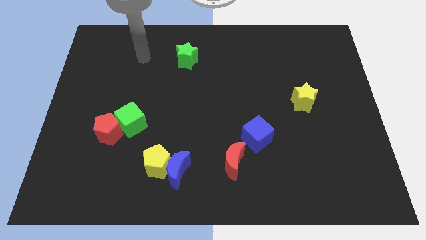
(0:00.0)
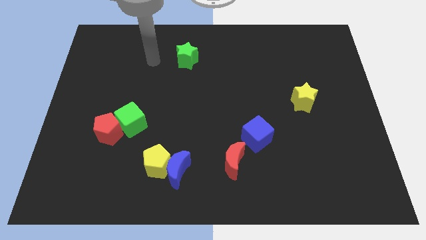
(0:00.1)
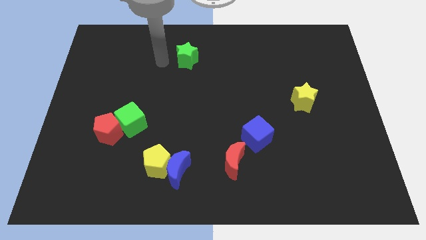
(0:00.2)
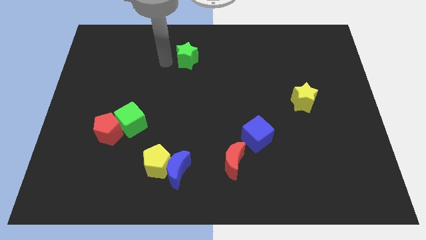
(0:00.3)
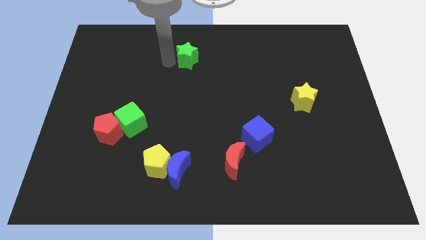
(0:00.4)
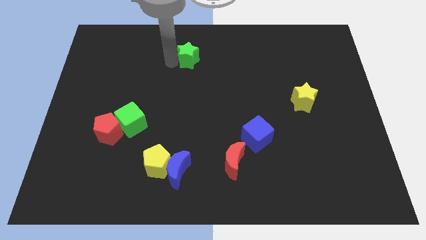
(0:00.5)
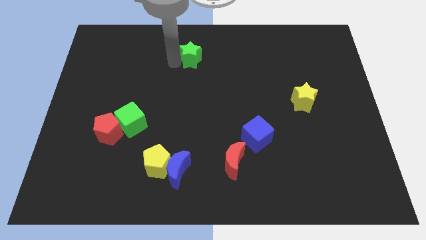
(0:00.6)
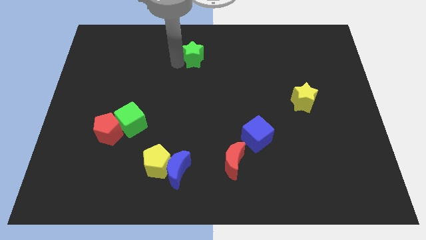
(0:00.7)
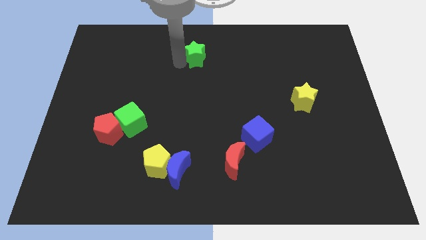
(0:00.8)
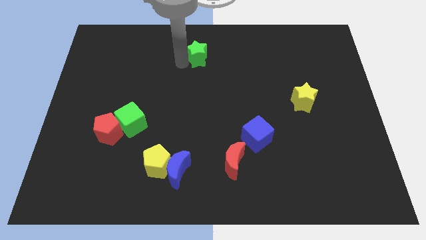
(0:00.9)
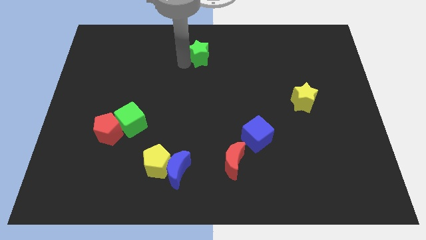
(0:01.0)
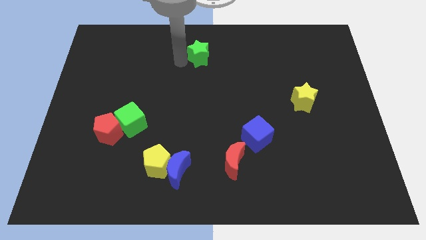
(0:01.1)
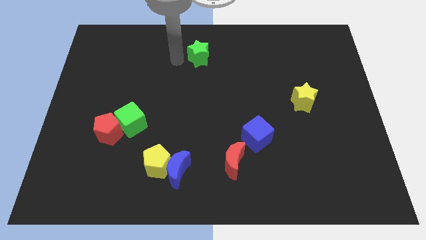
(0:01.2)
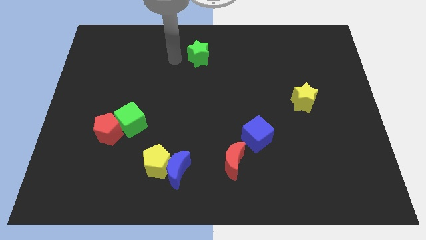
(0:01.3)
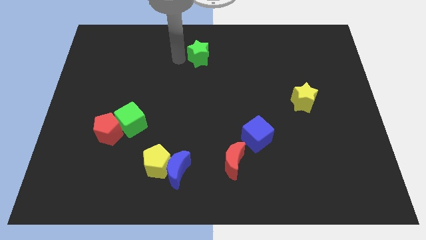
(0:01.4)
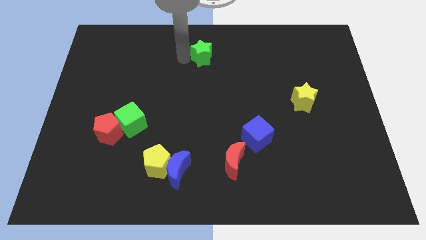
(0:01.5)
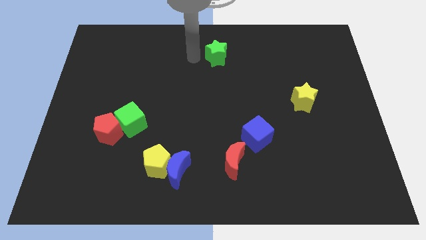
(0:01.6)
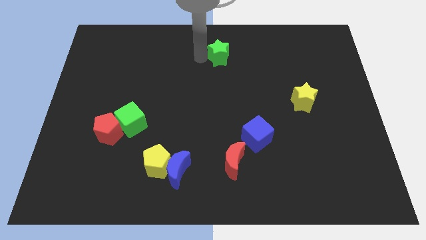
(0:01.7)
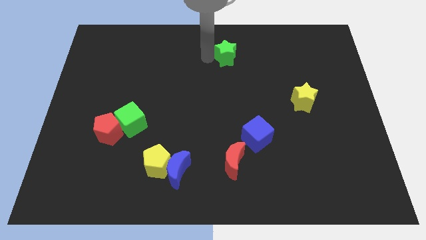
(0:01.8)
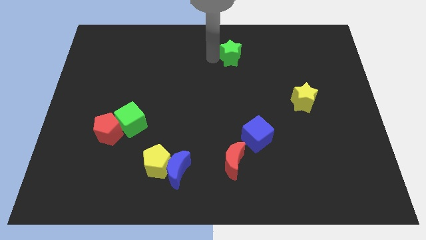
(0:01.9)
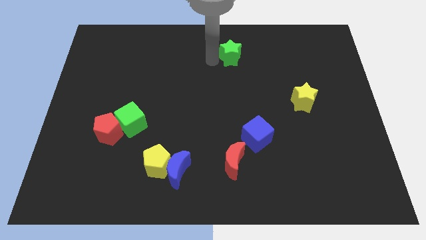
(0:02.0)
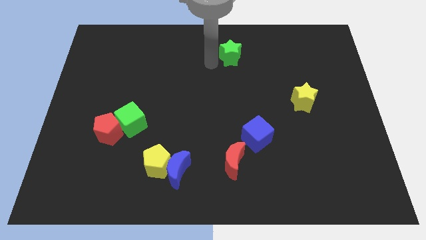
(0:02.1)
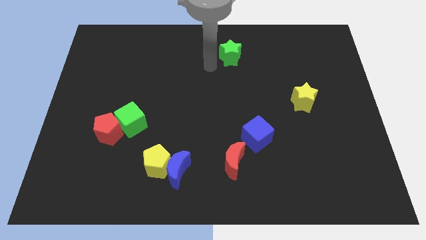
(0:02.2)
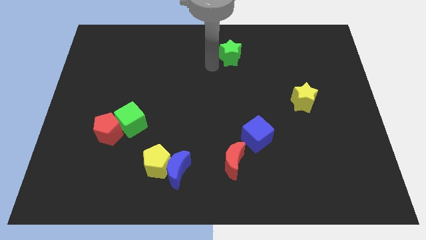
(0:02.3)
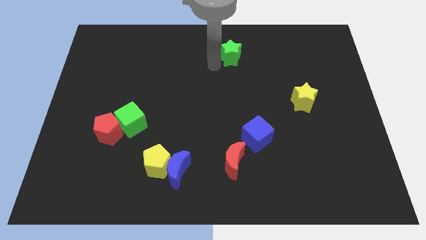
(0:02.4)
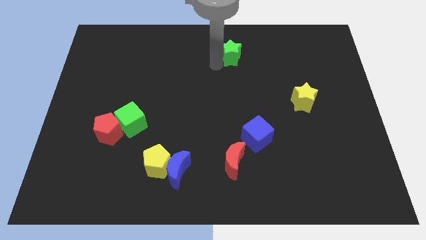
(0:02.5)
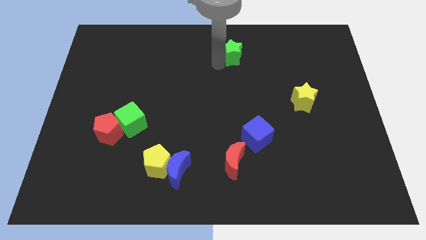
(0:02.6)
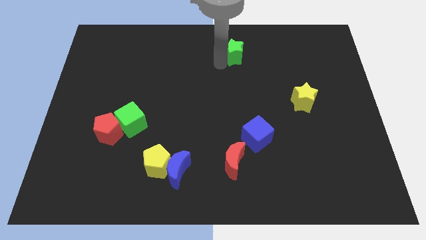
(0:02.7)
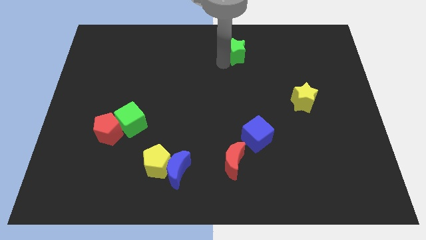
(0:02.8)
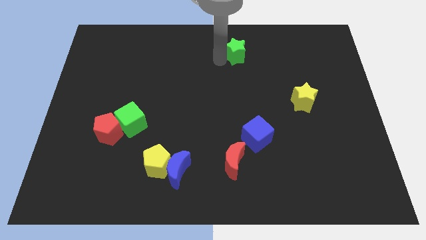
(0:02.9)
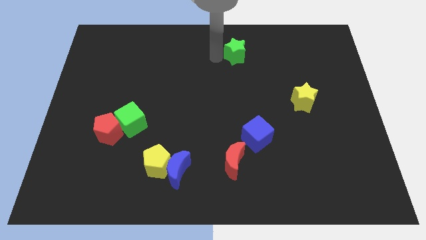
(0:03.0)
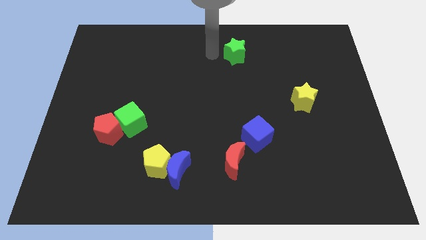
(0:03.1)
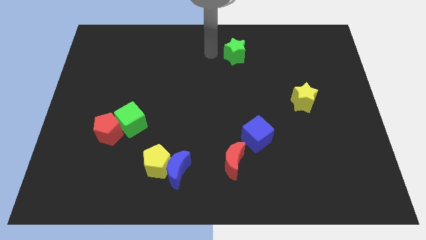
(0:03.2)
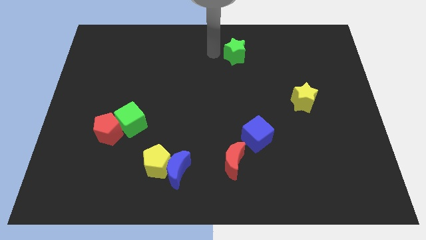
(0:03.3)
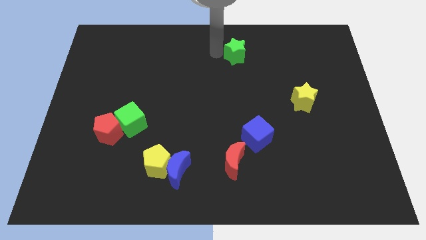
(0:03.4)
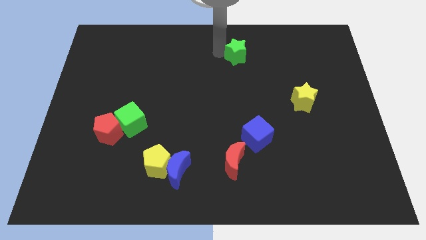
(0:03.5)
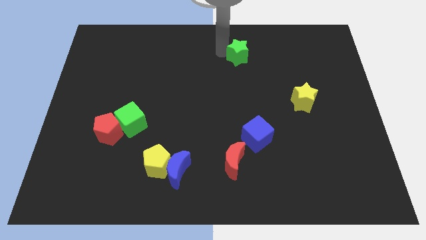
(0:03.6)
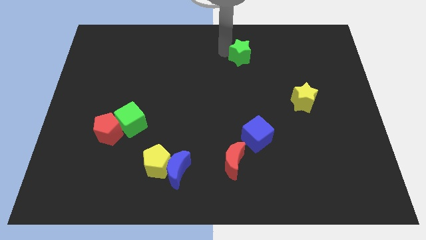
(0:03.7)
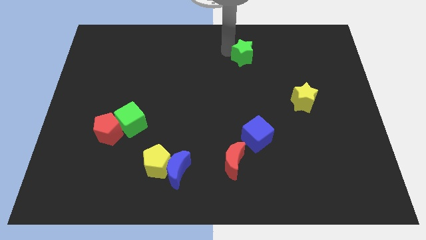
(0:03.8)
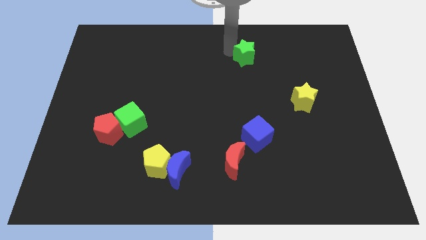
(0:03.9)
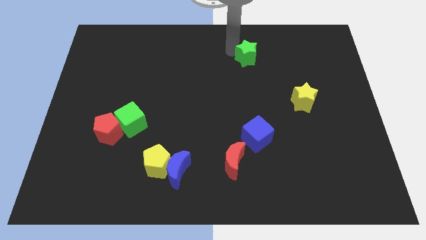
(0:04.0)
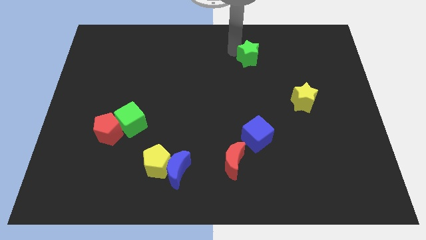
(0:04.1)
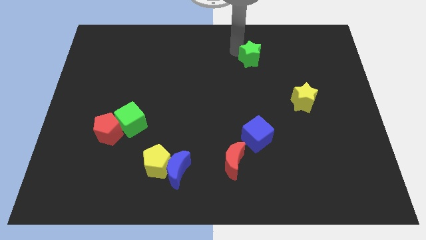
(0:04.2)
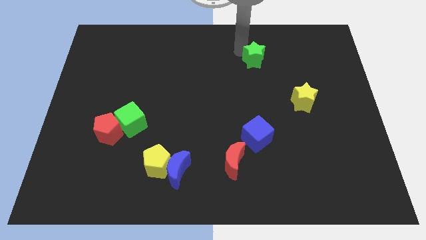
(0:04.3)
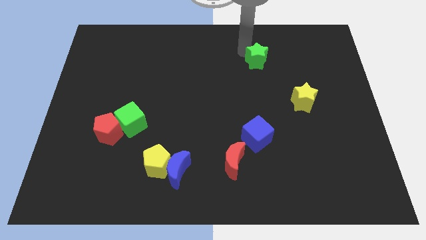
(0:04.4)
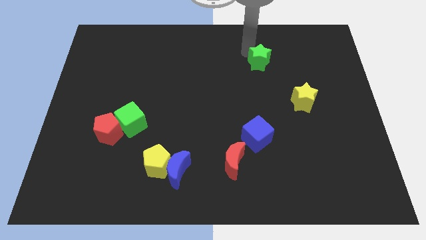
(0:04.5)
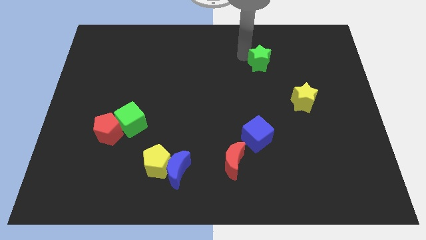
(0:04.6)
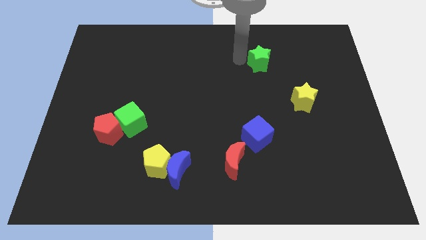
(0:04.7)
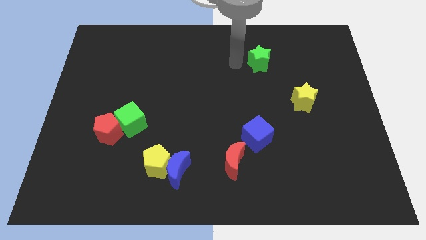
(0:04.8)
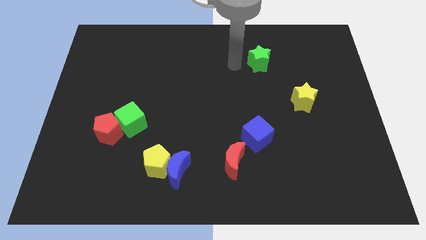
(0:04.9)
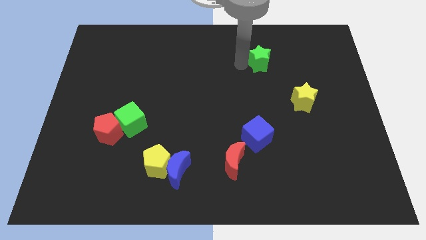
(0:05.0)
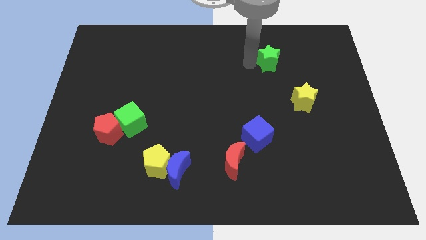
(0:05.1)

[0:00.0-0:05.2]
move the green star right

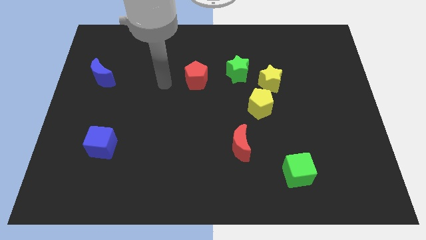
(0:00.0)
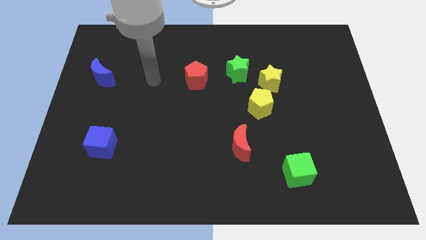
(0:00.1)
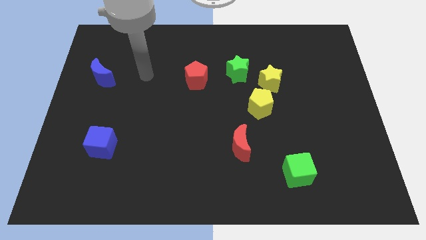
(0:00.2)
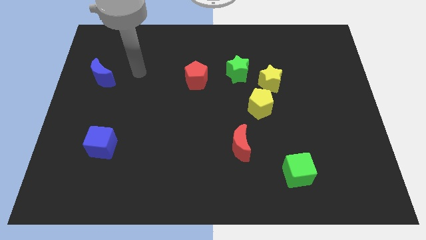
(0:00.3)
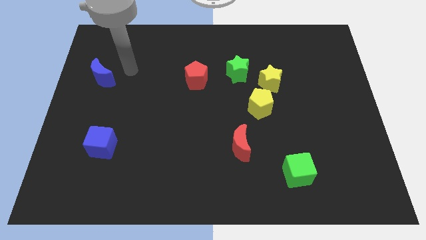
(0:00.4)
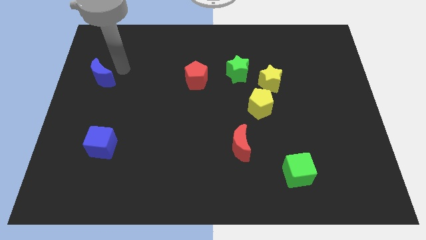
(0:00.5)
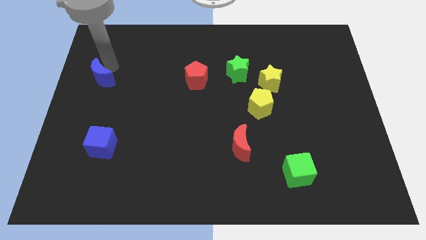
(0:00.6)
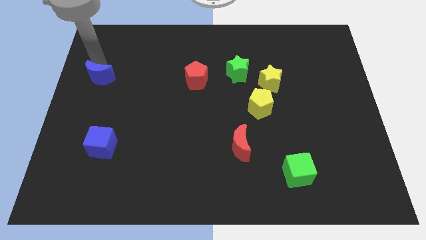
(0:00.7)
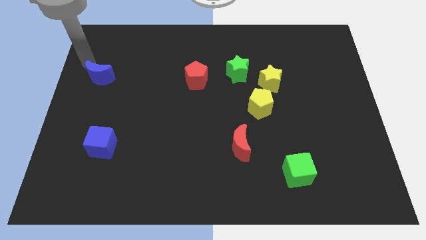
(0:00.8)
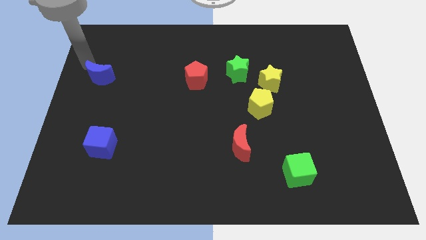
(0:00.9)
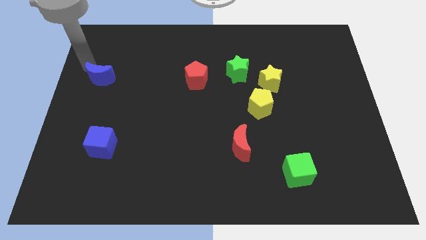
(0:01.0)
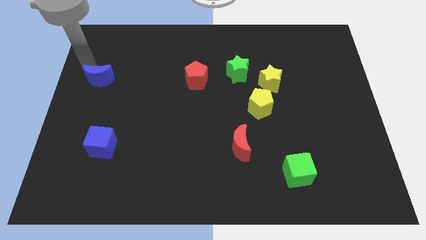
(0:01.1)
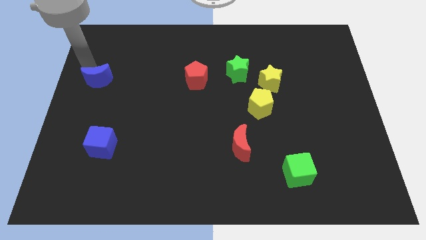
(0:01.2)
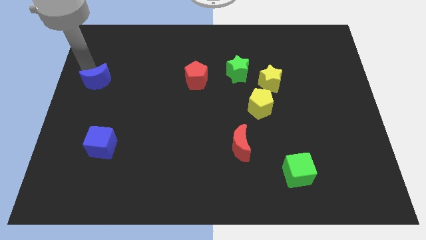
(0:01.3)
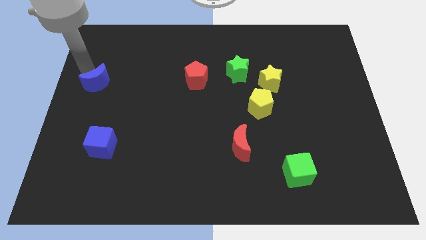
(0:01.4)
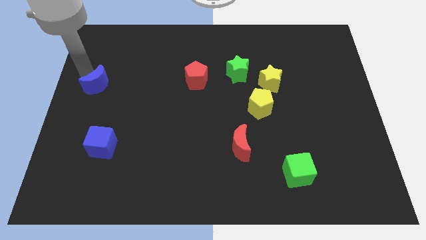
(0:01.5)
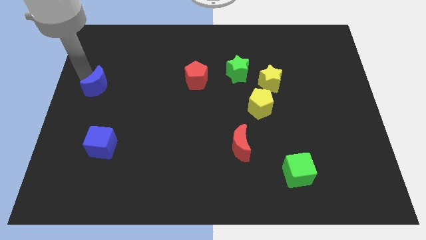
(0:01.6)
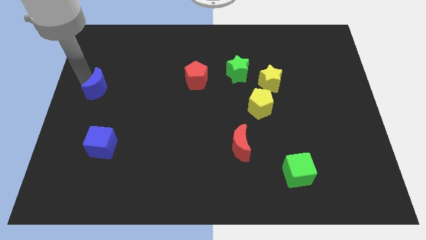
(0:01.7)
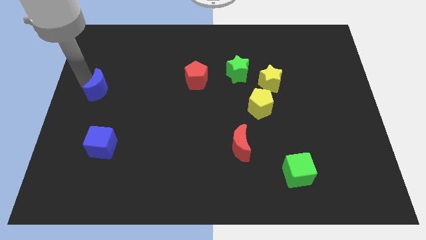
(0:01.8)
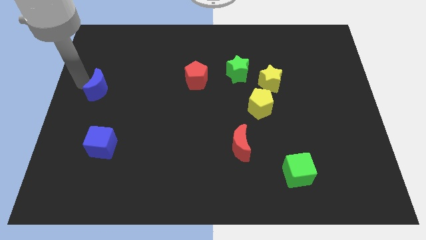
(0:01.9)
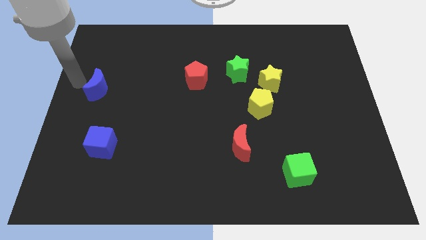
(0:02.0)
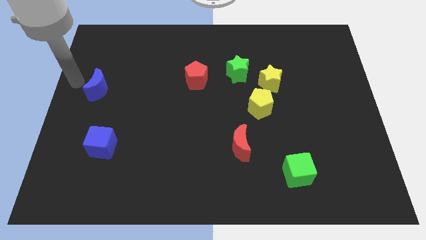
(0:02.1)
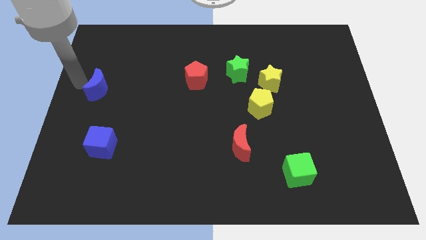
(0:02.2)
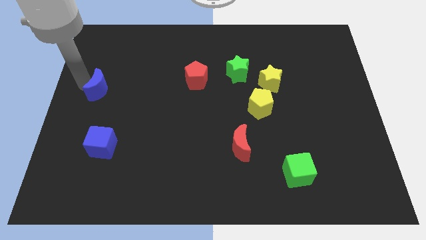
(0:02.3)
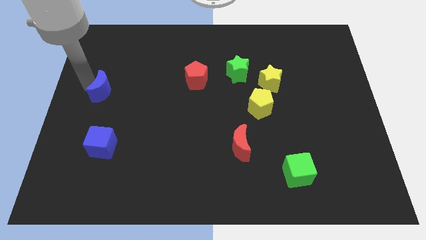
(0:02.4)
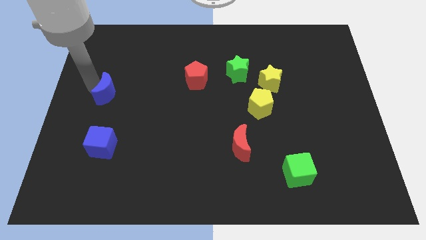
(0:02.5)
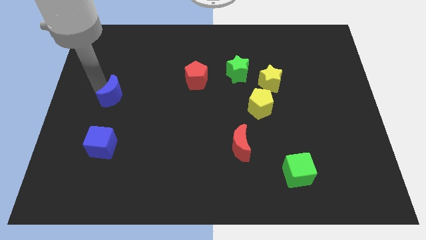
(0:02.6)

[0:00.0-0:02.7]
slide the blue moon a little down and then right

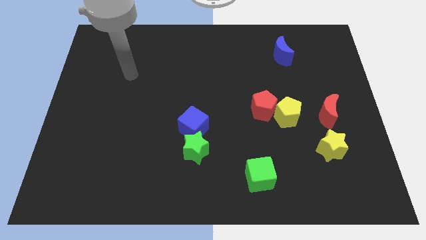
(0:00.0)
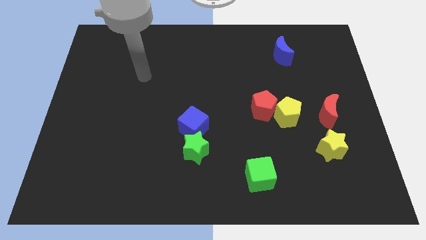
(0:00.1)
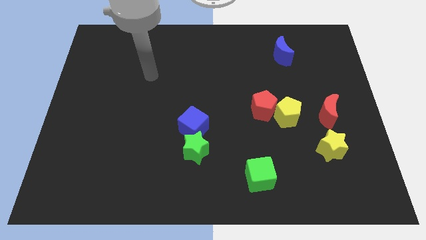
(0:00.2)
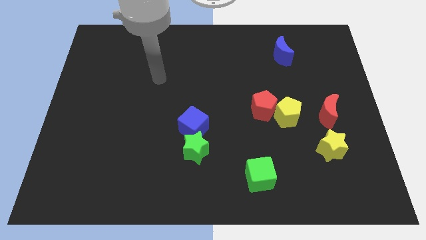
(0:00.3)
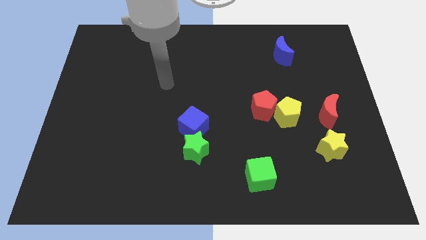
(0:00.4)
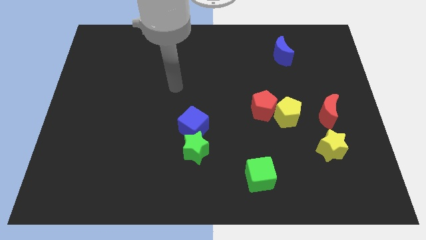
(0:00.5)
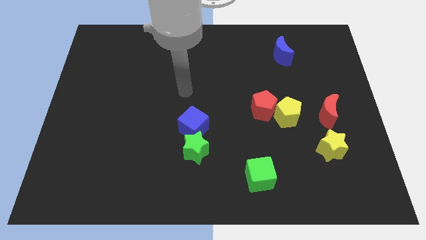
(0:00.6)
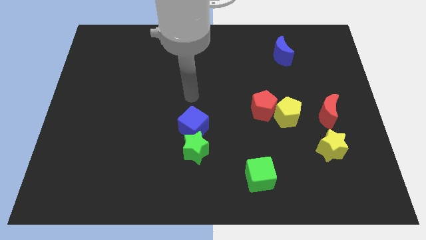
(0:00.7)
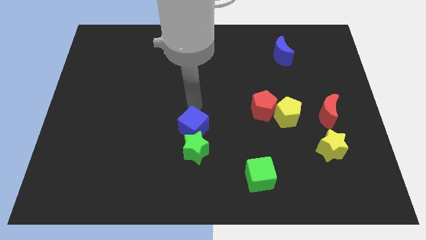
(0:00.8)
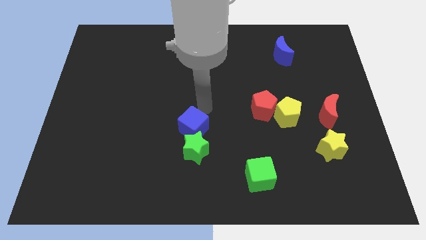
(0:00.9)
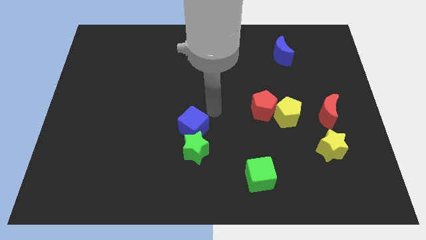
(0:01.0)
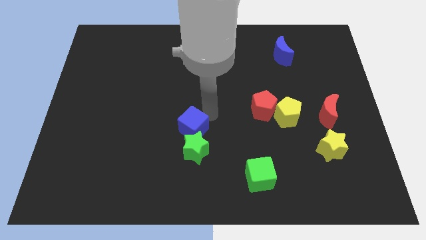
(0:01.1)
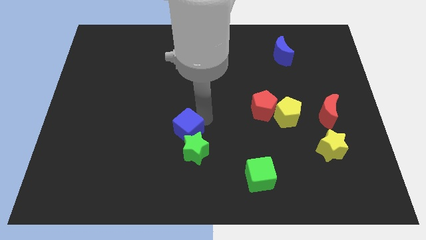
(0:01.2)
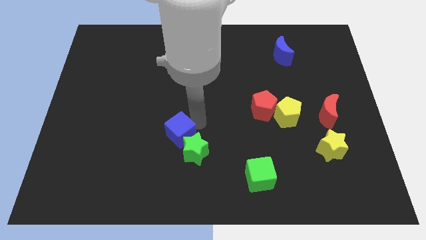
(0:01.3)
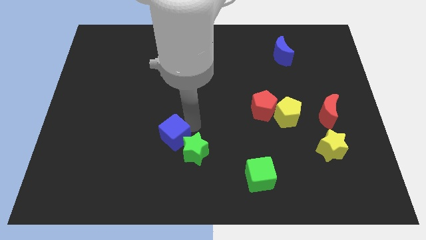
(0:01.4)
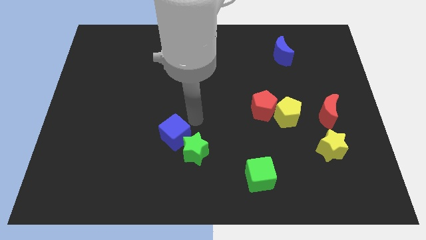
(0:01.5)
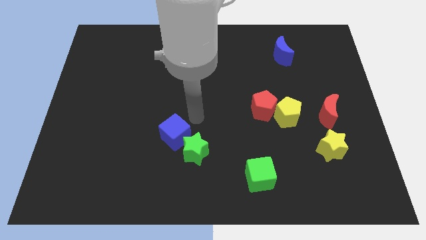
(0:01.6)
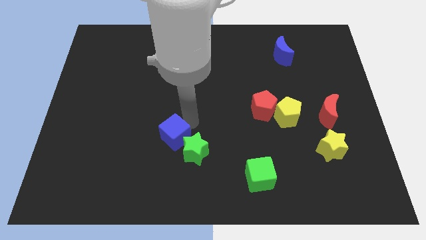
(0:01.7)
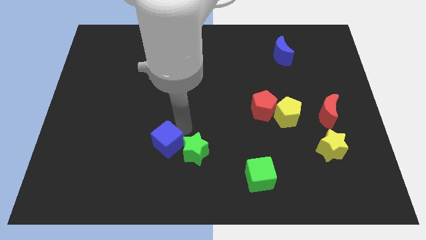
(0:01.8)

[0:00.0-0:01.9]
slightly slide the blue cube diagonally downwards and to the left
